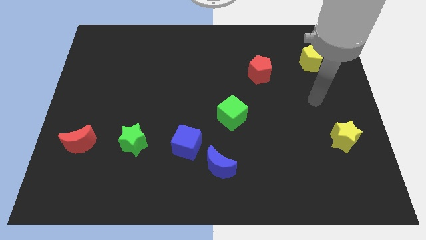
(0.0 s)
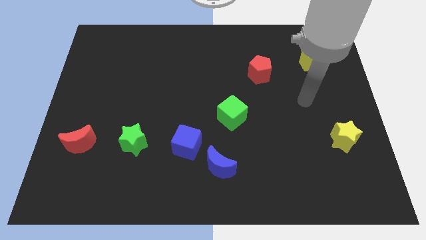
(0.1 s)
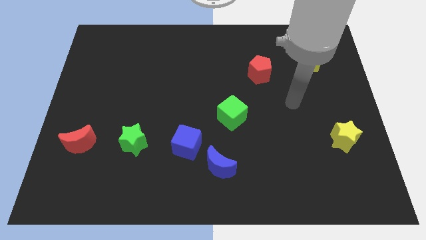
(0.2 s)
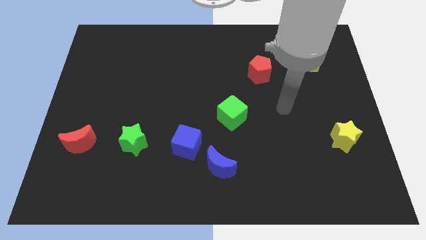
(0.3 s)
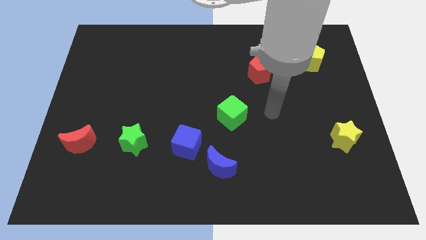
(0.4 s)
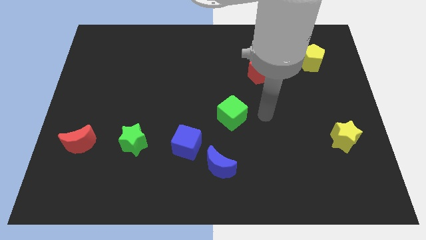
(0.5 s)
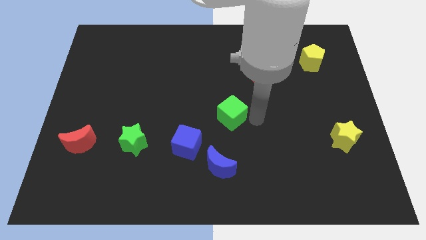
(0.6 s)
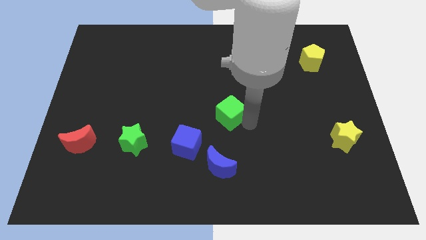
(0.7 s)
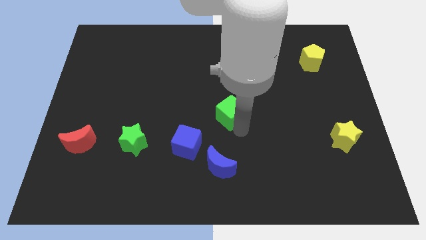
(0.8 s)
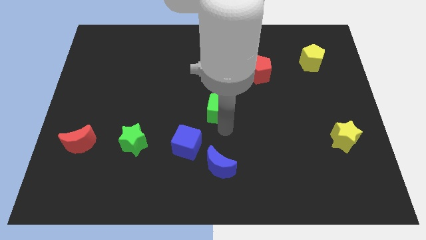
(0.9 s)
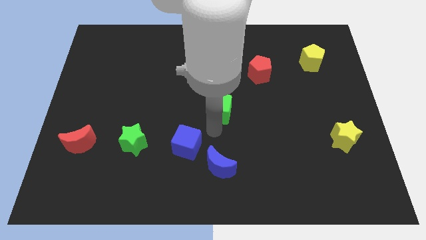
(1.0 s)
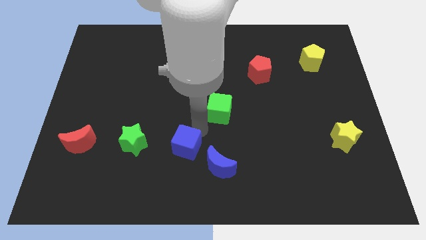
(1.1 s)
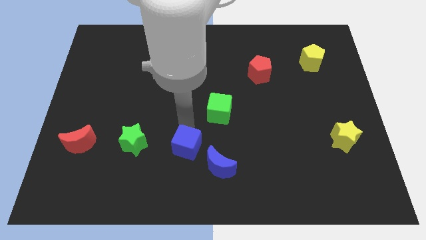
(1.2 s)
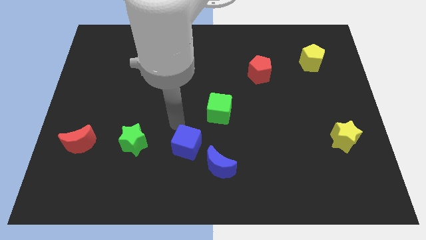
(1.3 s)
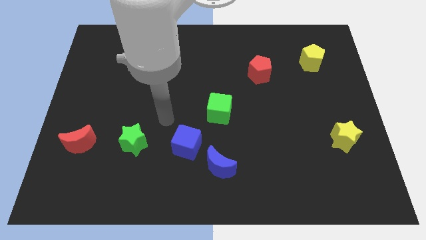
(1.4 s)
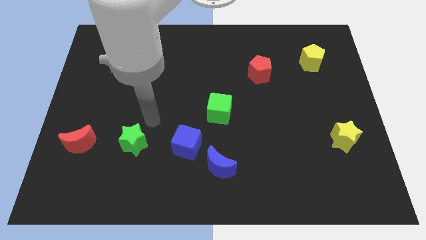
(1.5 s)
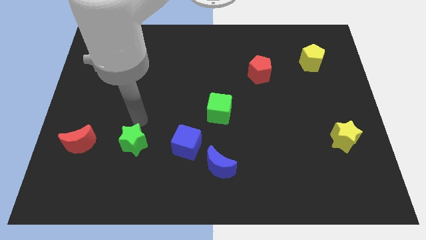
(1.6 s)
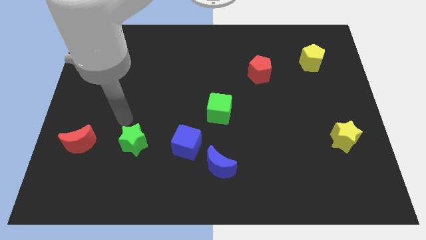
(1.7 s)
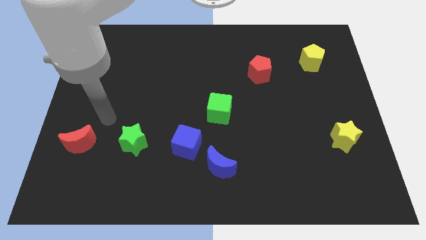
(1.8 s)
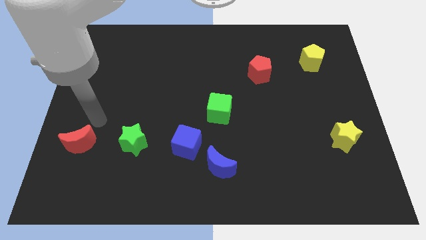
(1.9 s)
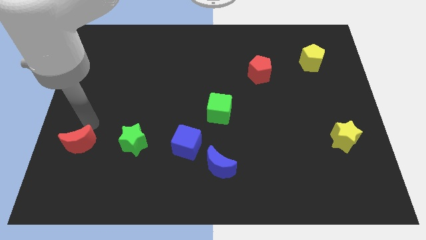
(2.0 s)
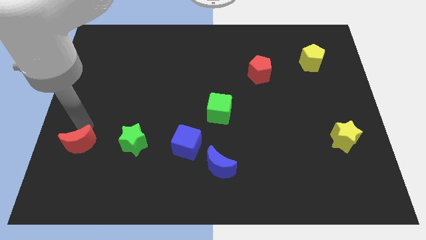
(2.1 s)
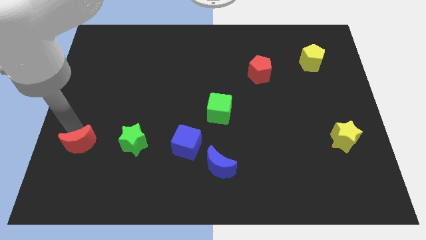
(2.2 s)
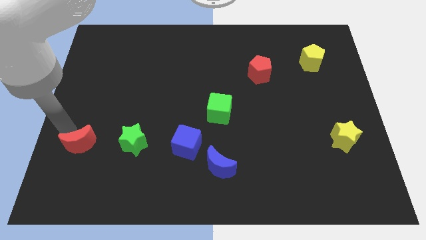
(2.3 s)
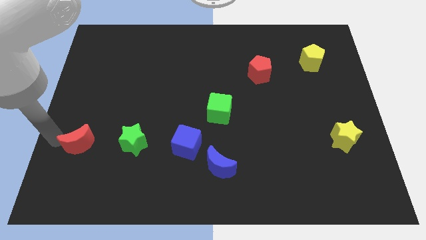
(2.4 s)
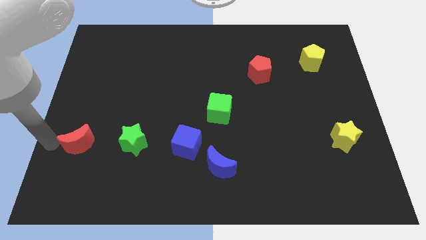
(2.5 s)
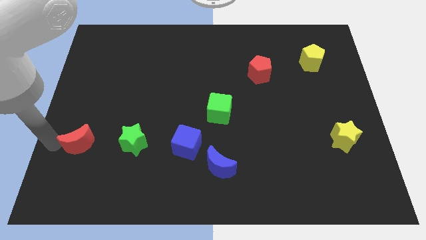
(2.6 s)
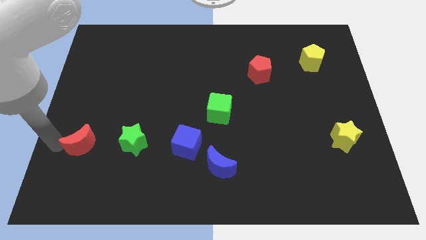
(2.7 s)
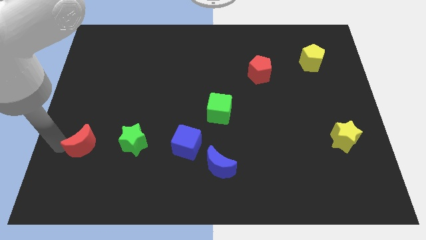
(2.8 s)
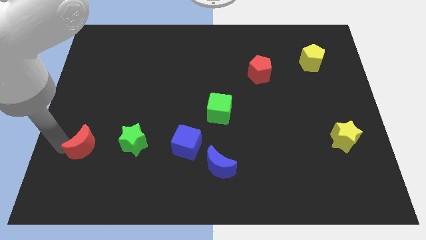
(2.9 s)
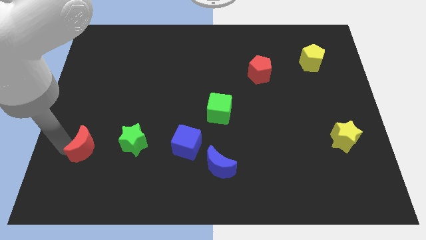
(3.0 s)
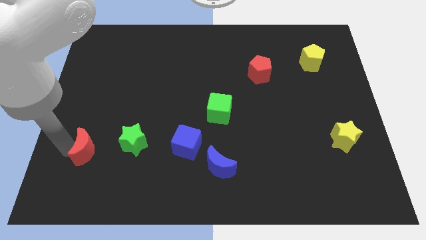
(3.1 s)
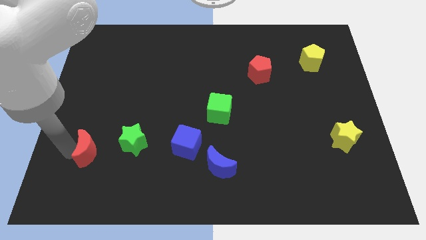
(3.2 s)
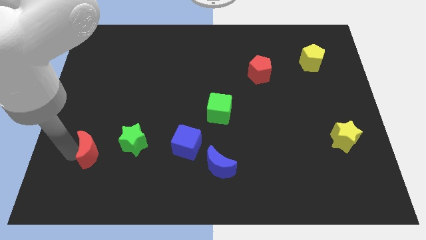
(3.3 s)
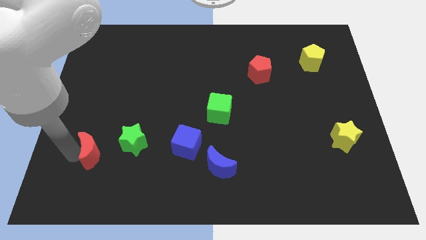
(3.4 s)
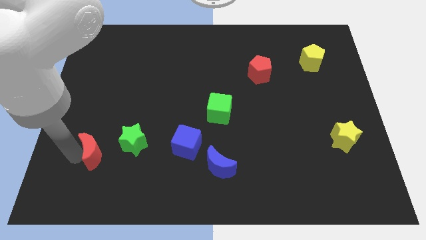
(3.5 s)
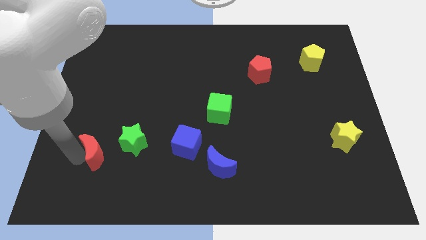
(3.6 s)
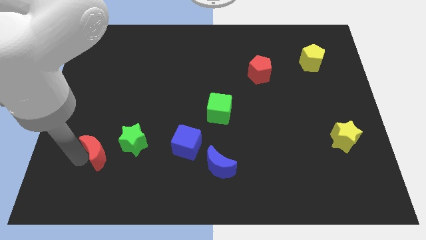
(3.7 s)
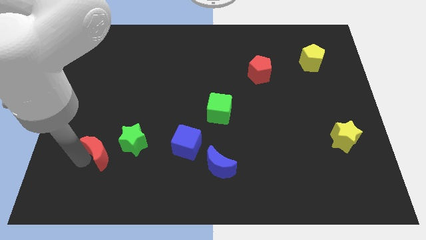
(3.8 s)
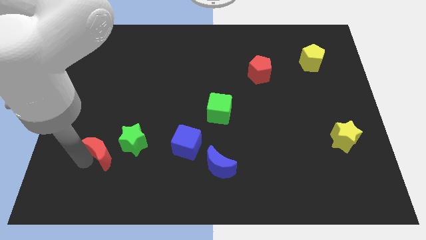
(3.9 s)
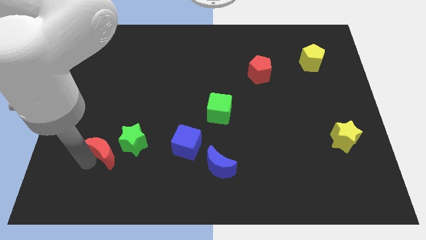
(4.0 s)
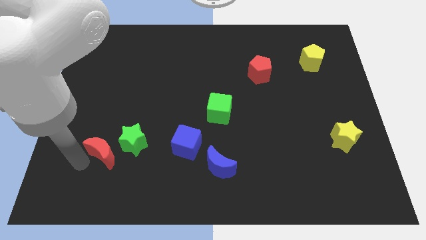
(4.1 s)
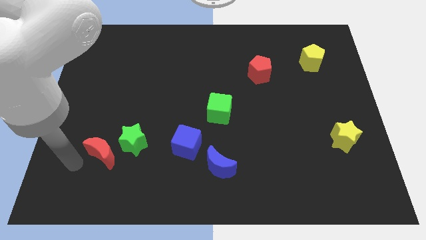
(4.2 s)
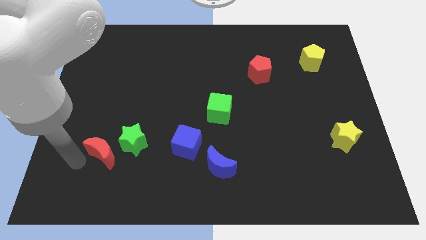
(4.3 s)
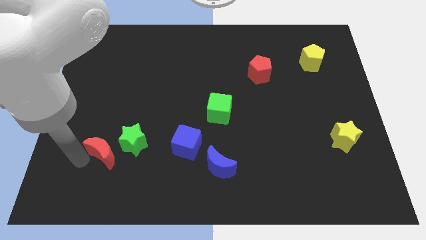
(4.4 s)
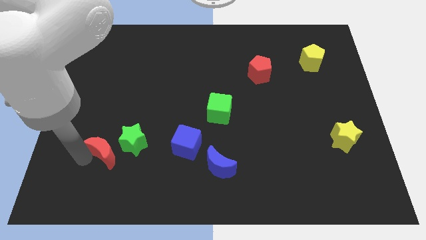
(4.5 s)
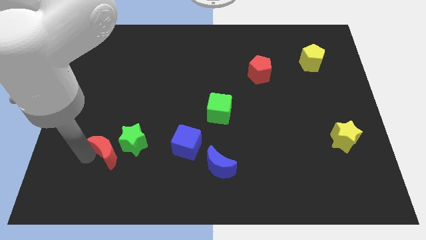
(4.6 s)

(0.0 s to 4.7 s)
push the red moon close to the green star

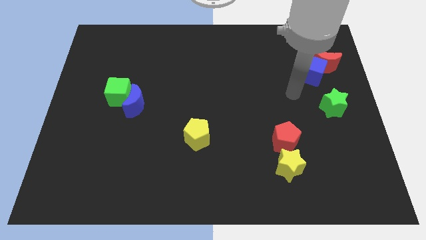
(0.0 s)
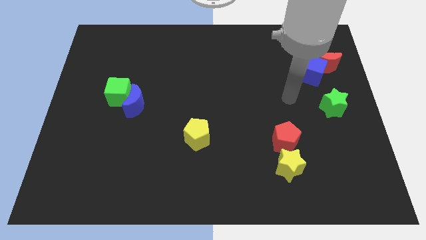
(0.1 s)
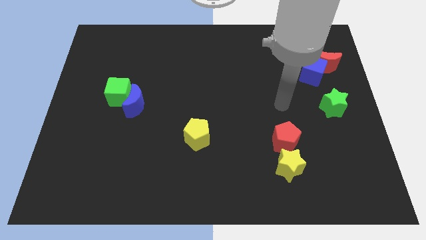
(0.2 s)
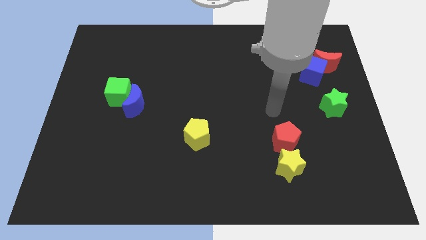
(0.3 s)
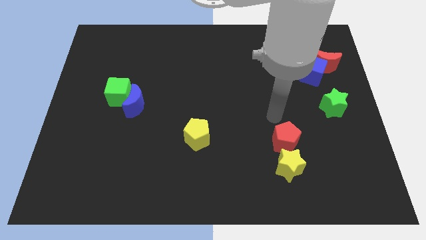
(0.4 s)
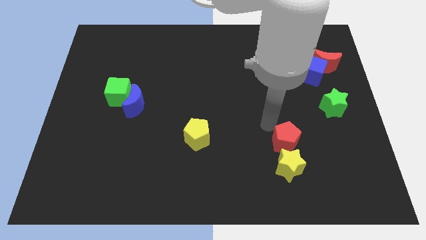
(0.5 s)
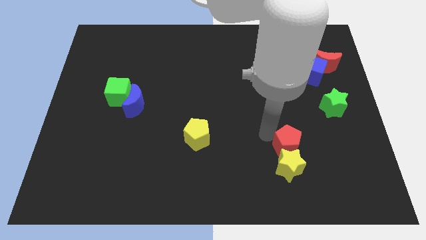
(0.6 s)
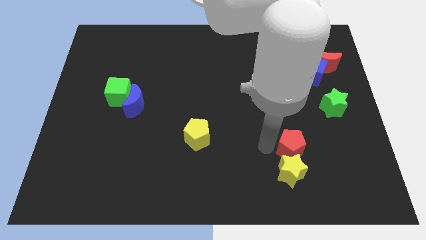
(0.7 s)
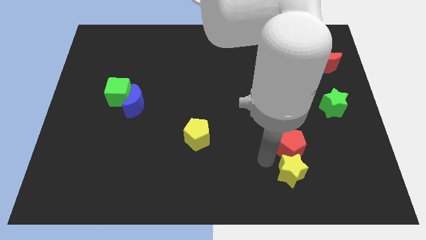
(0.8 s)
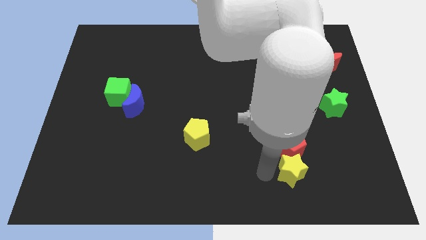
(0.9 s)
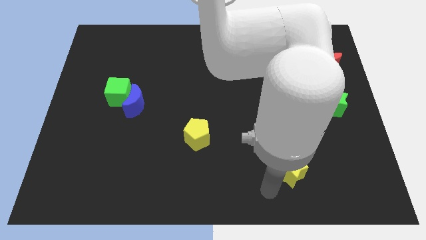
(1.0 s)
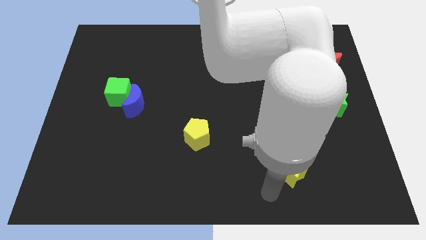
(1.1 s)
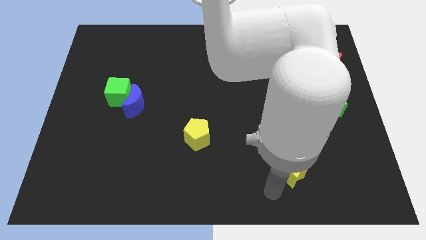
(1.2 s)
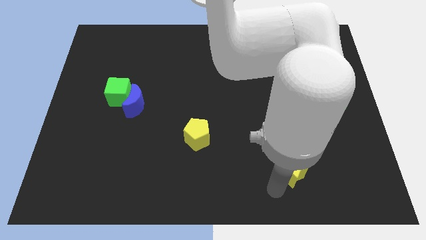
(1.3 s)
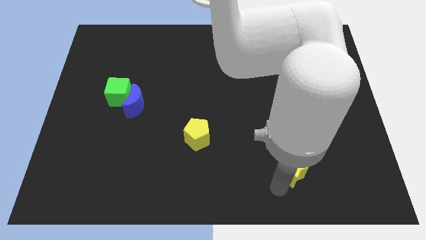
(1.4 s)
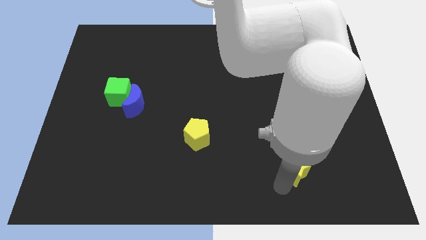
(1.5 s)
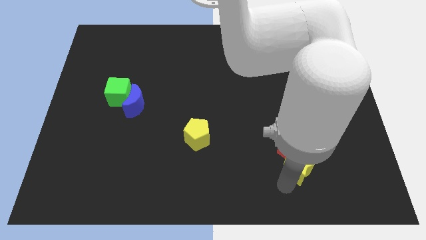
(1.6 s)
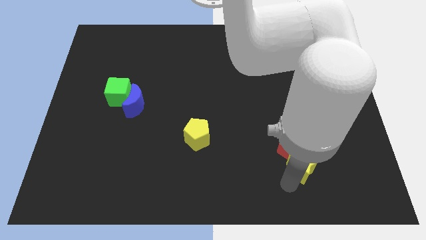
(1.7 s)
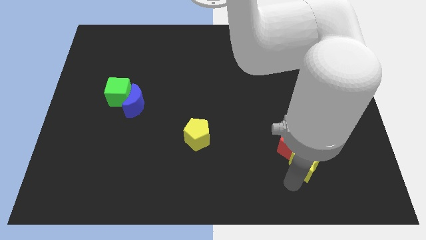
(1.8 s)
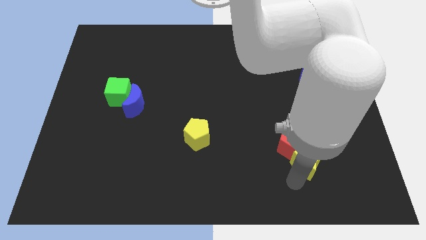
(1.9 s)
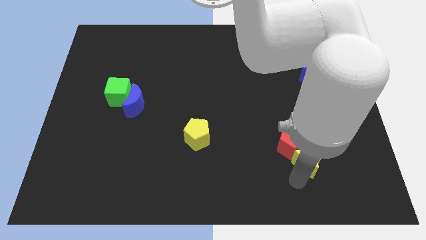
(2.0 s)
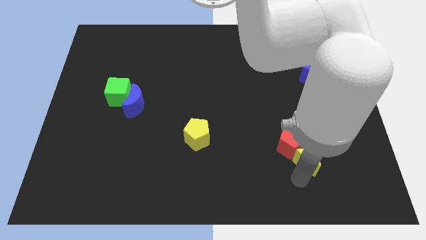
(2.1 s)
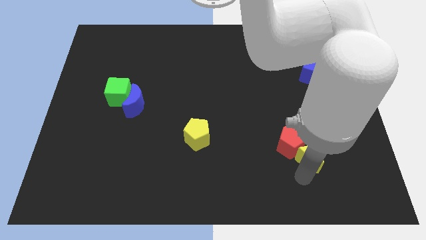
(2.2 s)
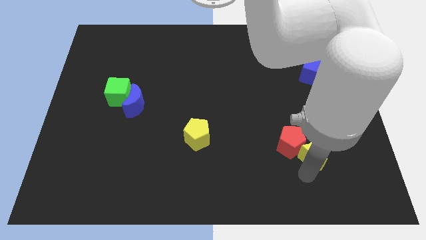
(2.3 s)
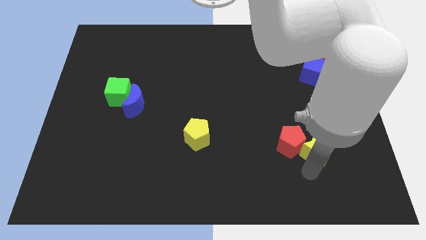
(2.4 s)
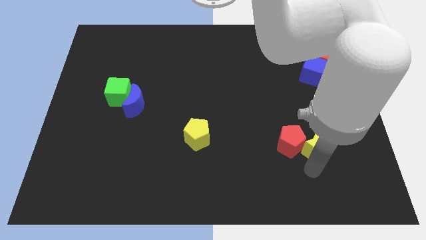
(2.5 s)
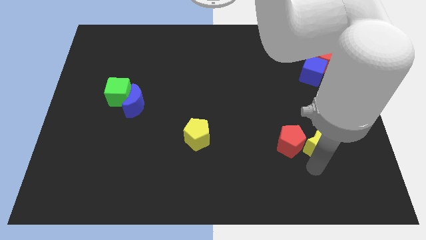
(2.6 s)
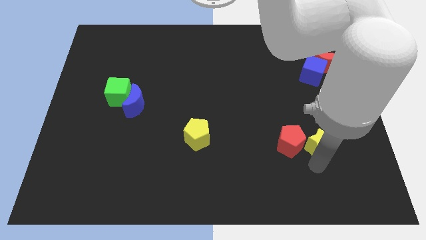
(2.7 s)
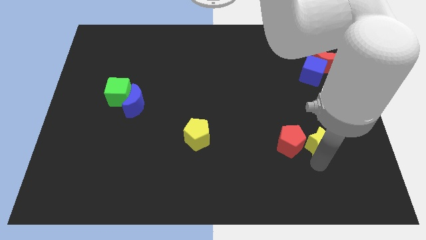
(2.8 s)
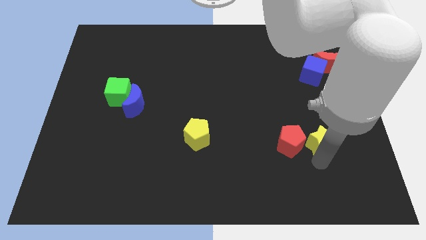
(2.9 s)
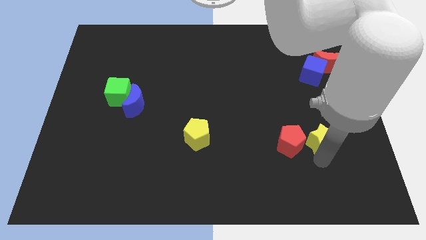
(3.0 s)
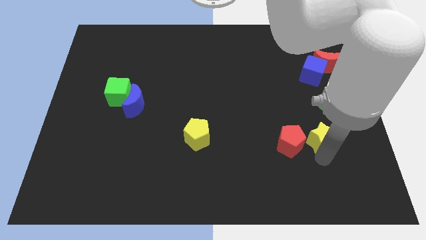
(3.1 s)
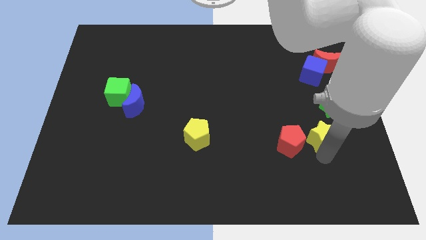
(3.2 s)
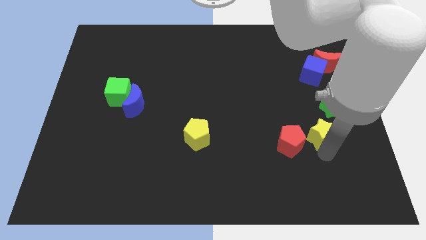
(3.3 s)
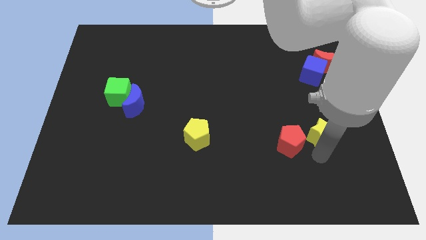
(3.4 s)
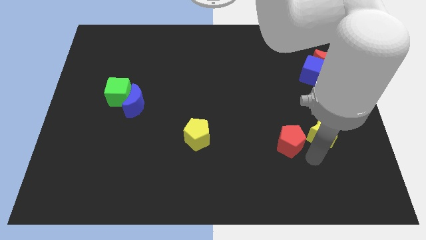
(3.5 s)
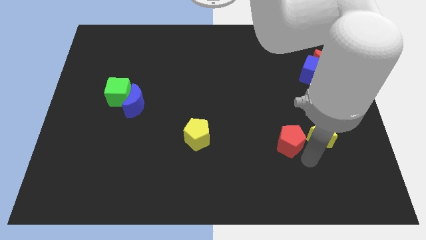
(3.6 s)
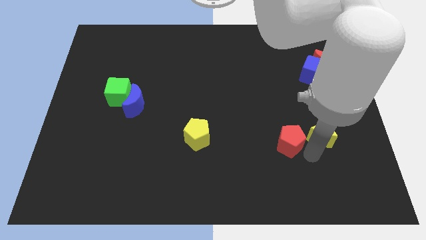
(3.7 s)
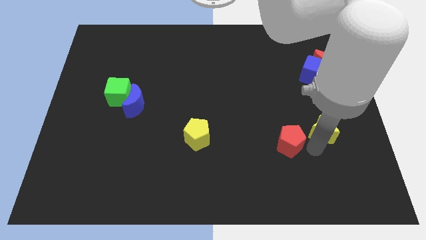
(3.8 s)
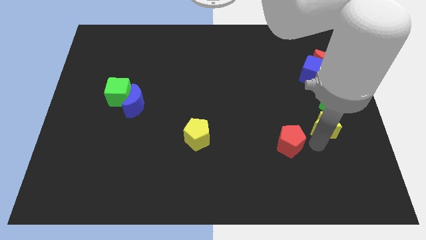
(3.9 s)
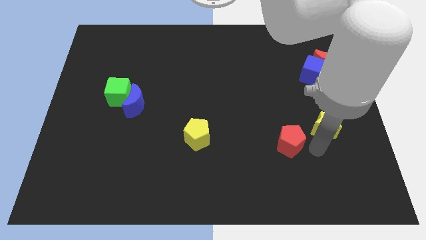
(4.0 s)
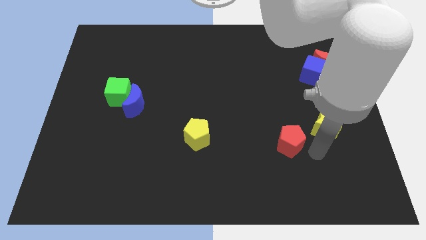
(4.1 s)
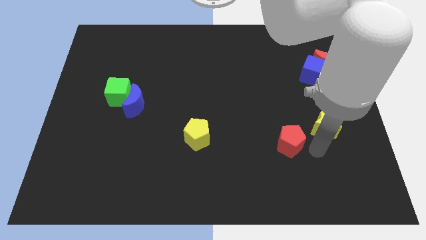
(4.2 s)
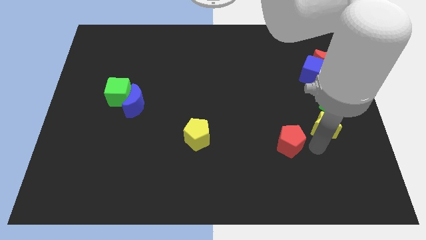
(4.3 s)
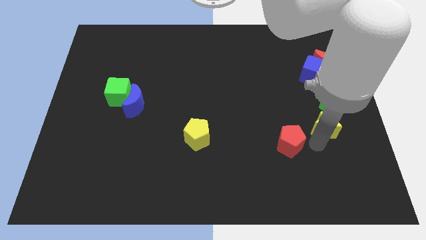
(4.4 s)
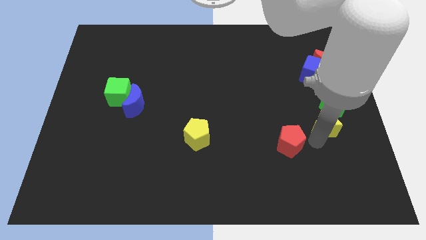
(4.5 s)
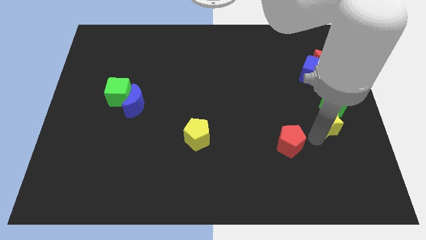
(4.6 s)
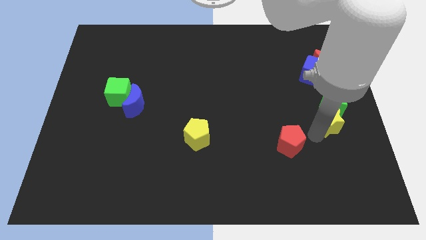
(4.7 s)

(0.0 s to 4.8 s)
move the yellow star to the green star
